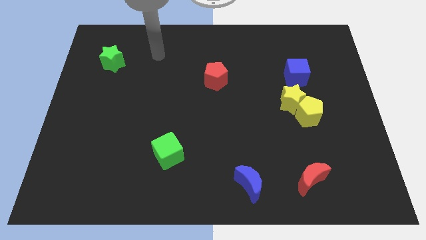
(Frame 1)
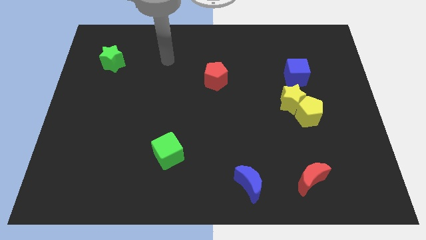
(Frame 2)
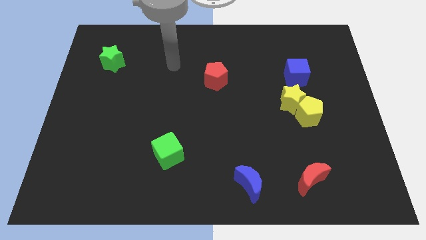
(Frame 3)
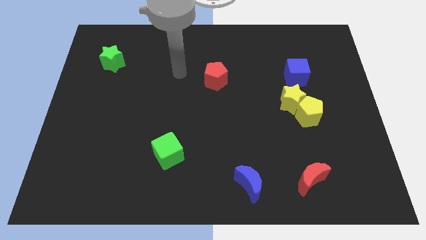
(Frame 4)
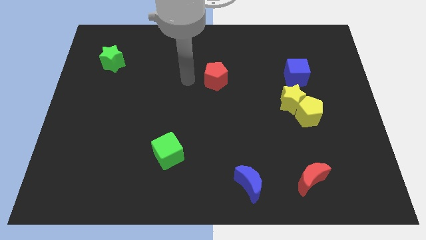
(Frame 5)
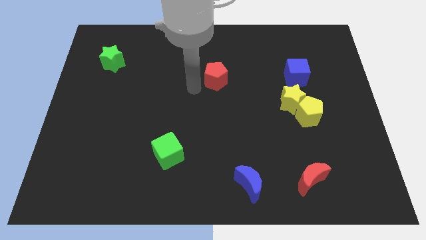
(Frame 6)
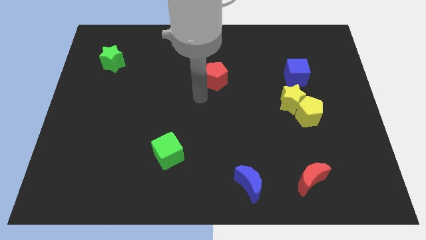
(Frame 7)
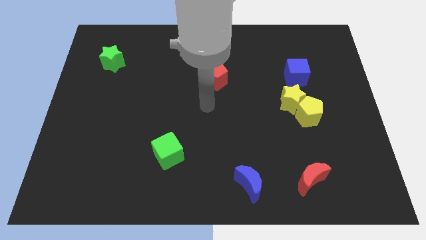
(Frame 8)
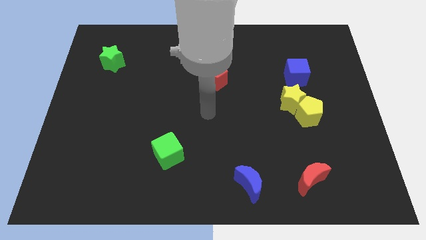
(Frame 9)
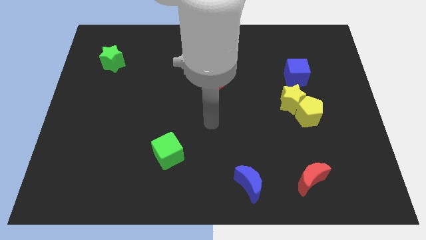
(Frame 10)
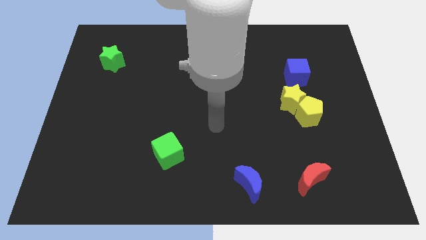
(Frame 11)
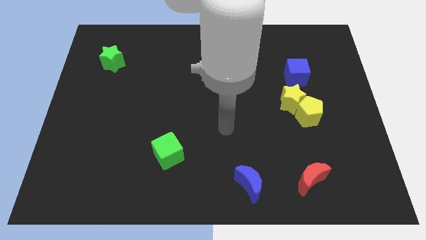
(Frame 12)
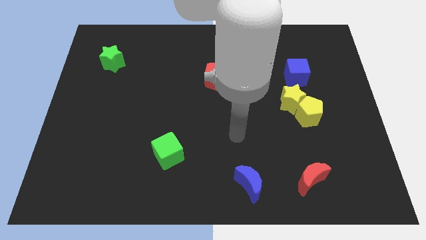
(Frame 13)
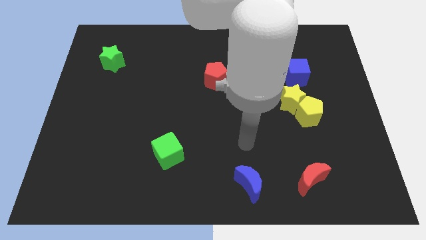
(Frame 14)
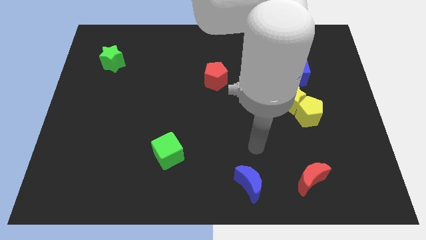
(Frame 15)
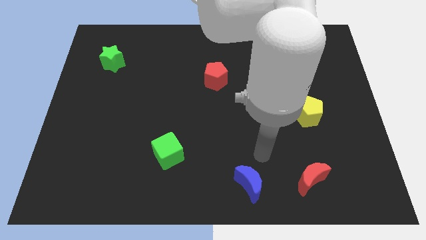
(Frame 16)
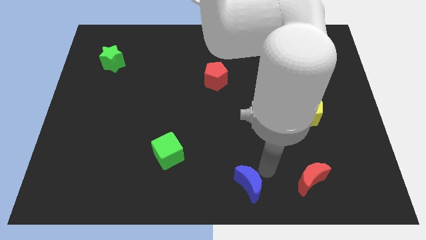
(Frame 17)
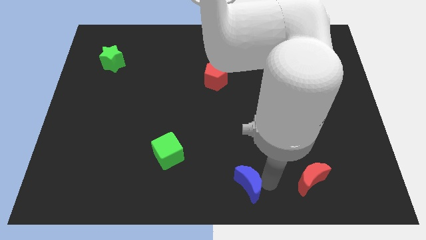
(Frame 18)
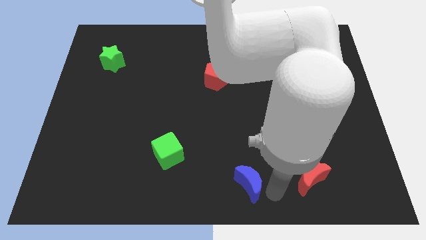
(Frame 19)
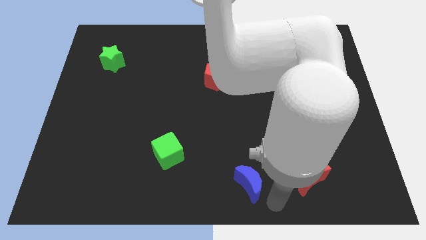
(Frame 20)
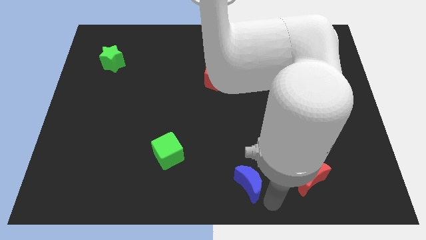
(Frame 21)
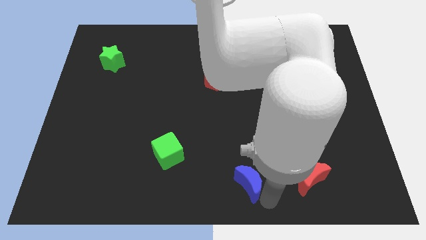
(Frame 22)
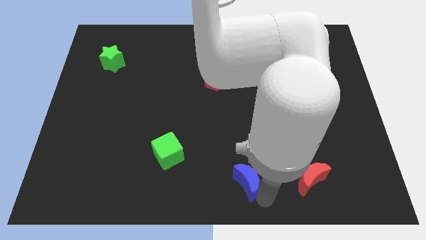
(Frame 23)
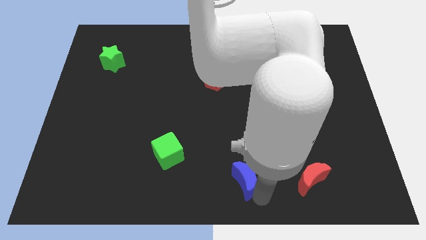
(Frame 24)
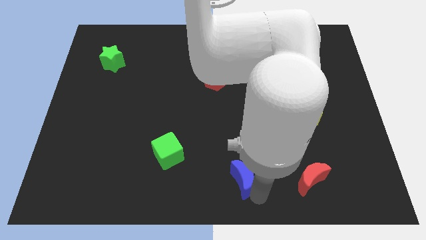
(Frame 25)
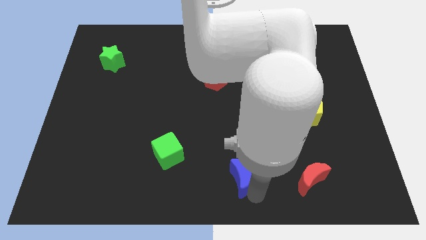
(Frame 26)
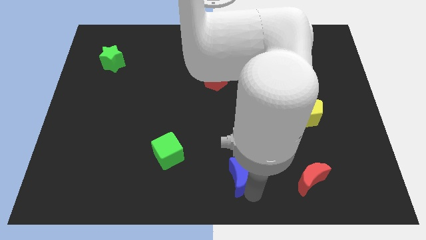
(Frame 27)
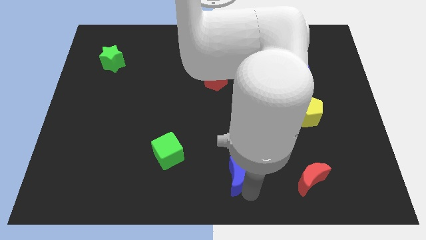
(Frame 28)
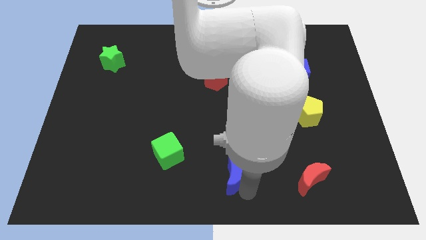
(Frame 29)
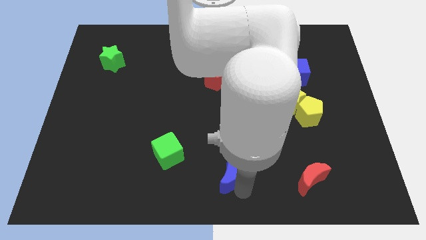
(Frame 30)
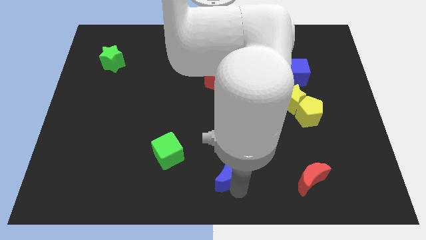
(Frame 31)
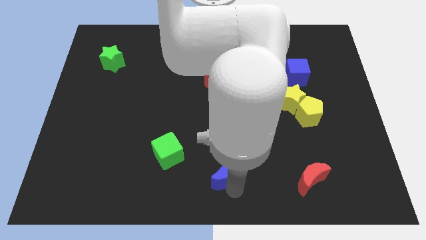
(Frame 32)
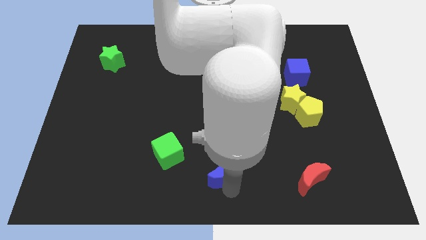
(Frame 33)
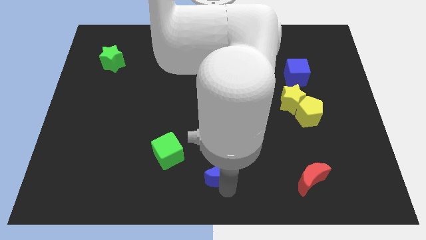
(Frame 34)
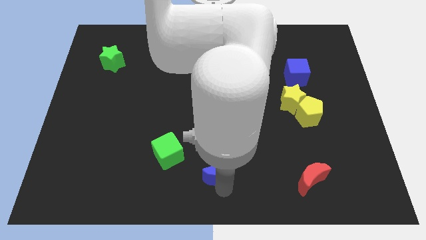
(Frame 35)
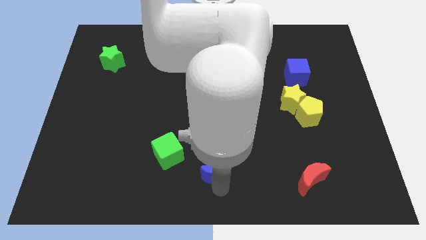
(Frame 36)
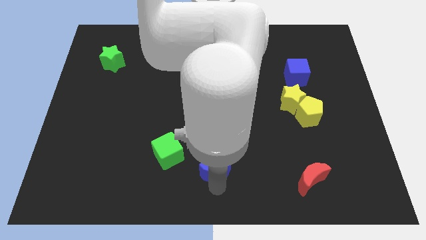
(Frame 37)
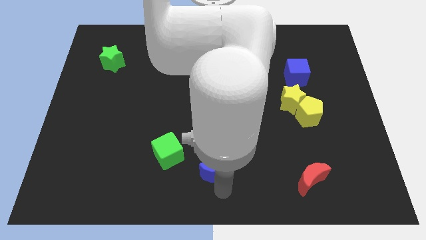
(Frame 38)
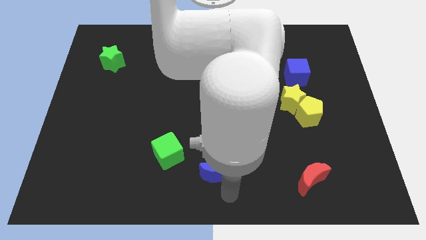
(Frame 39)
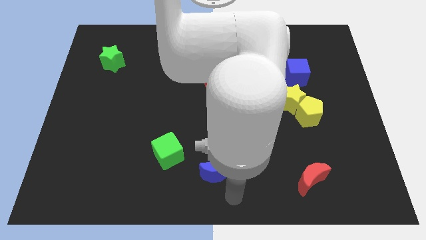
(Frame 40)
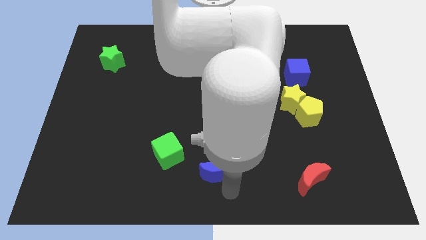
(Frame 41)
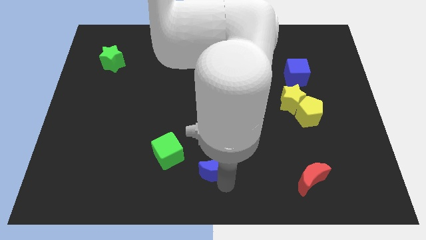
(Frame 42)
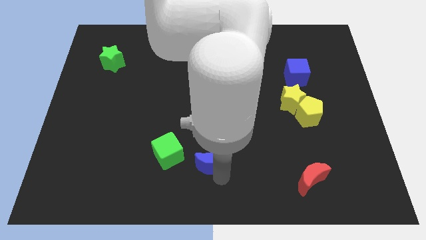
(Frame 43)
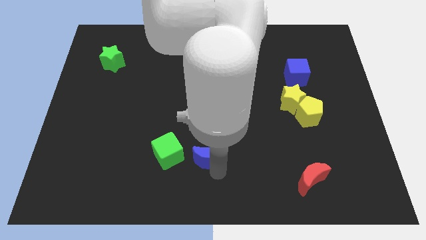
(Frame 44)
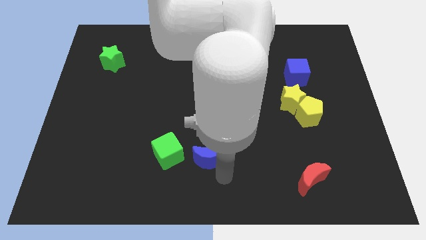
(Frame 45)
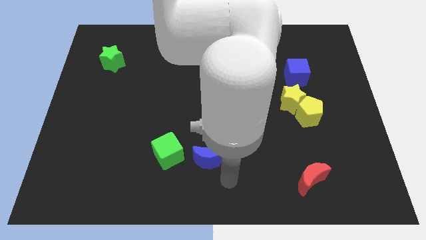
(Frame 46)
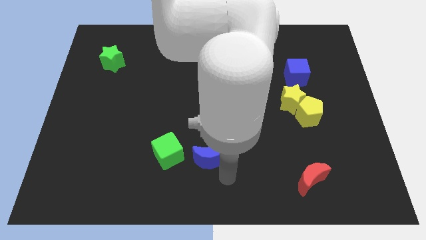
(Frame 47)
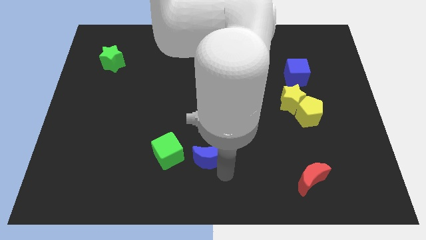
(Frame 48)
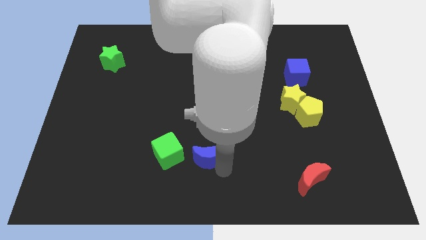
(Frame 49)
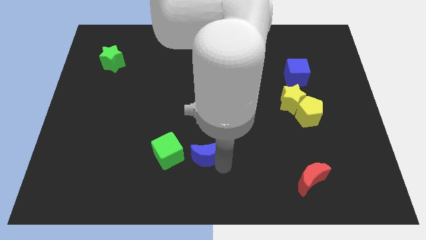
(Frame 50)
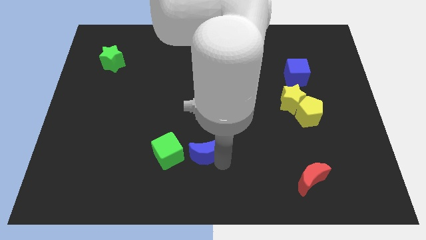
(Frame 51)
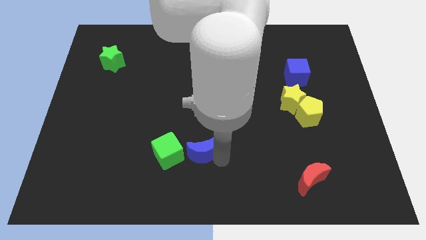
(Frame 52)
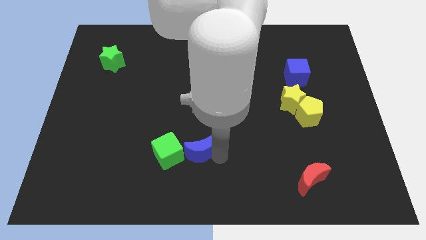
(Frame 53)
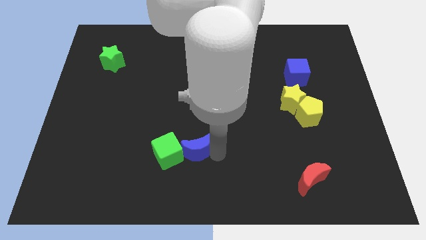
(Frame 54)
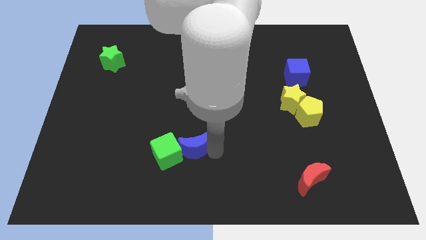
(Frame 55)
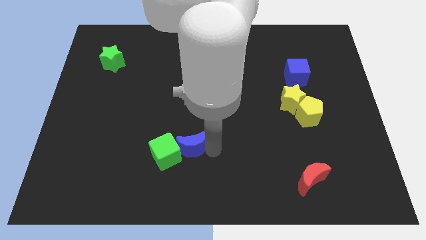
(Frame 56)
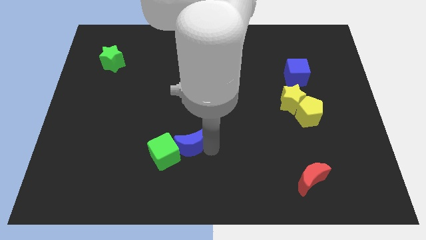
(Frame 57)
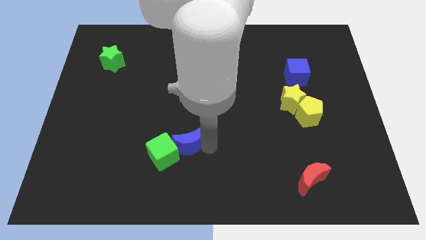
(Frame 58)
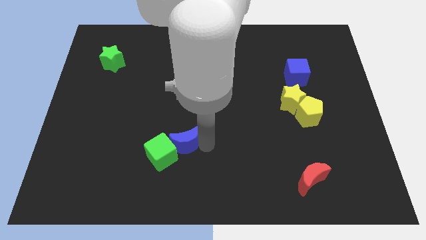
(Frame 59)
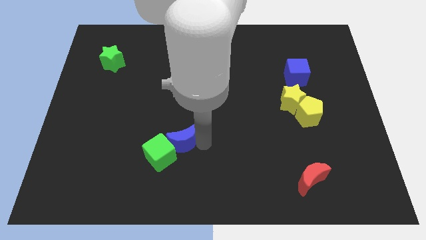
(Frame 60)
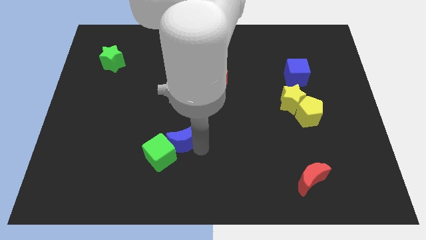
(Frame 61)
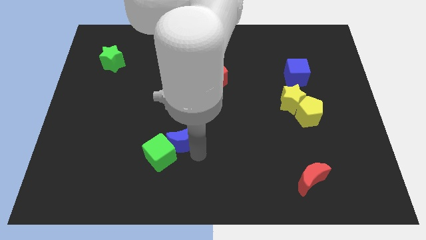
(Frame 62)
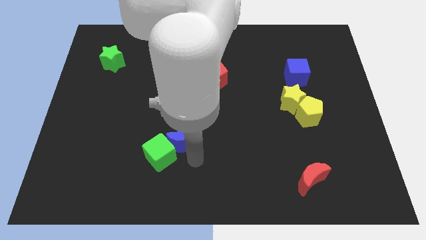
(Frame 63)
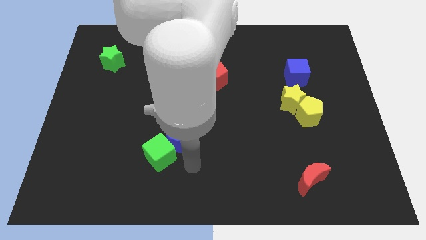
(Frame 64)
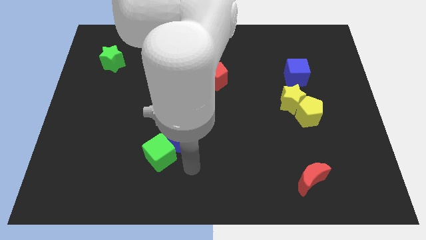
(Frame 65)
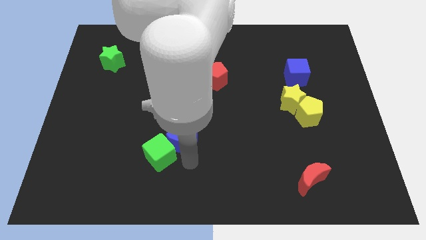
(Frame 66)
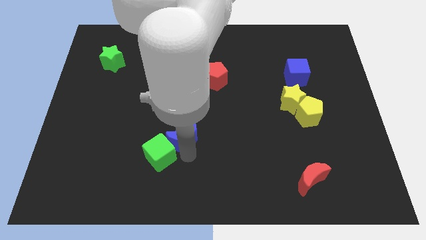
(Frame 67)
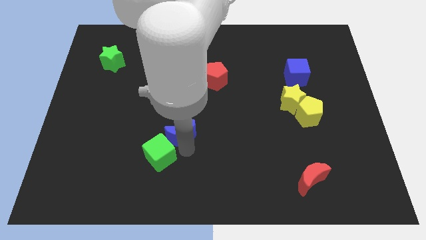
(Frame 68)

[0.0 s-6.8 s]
slide the blue moon to the top side of the green cube
